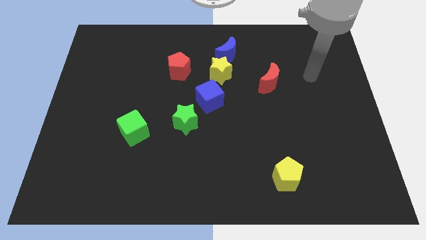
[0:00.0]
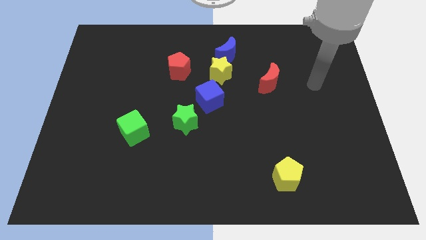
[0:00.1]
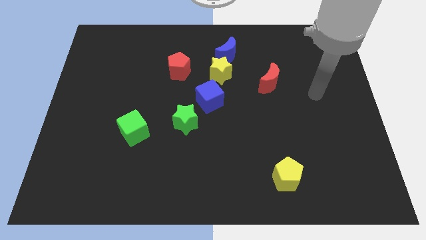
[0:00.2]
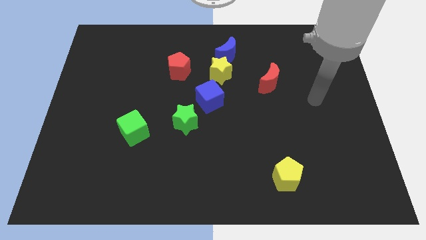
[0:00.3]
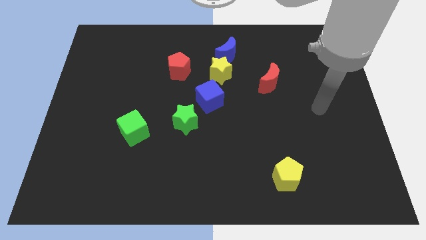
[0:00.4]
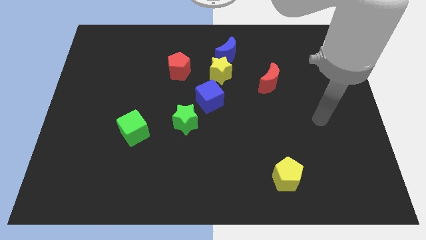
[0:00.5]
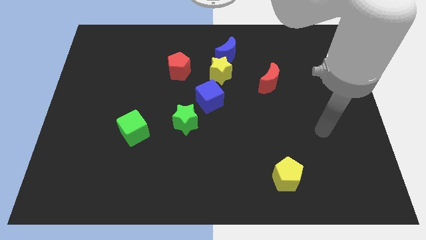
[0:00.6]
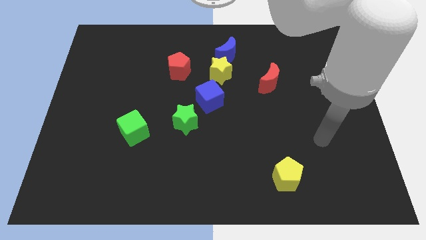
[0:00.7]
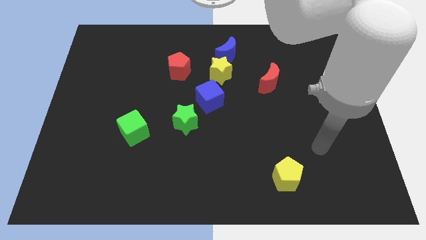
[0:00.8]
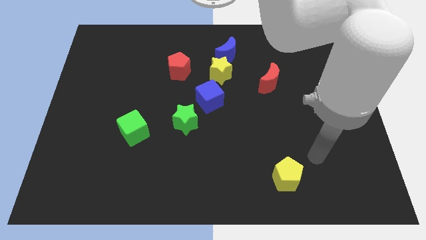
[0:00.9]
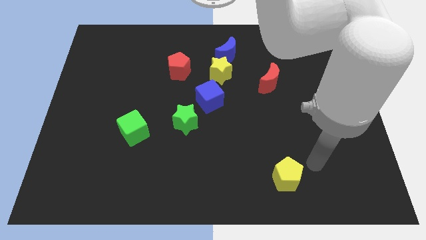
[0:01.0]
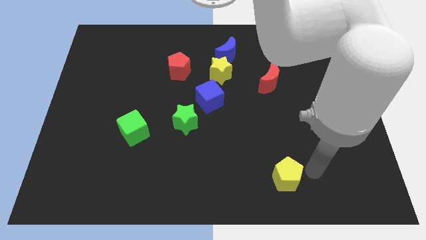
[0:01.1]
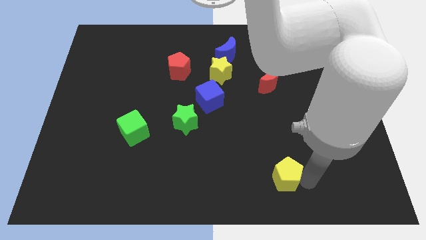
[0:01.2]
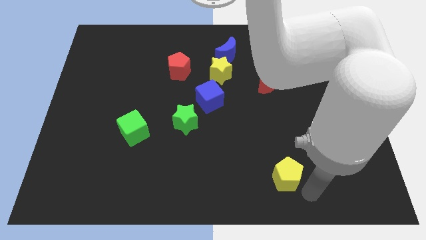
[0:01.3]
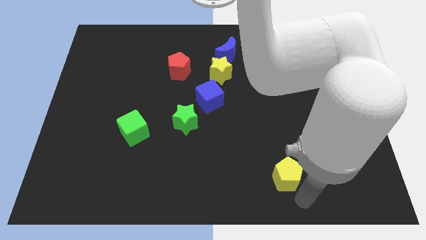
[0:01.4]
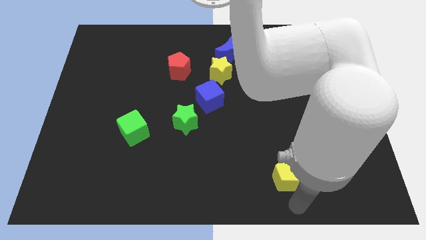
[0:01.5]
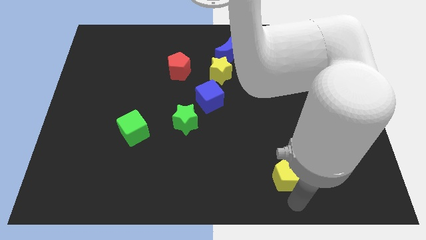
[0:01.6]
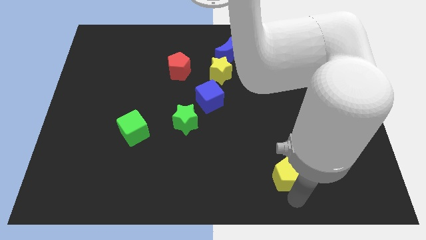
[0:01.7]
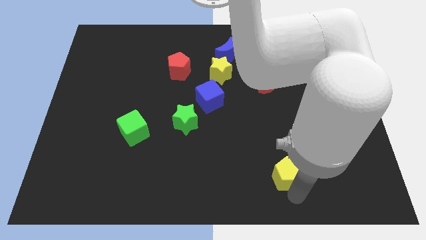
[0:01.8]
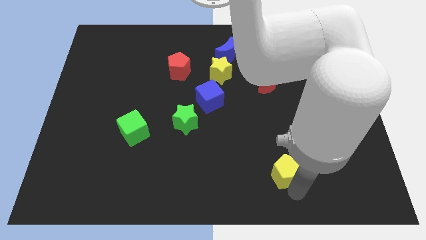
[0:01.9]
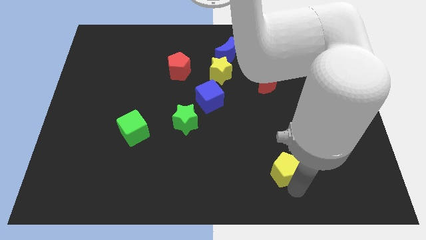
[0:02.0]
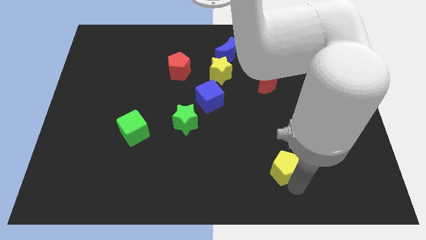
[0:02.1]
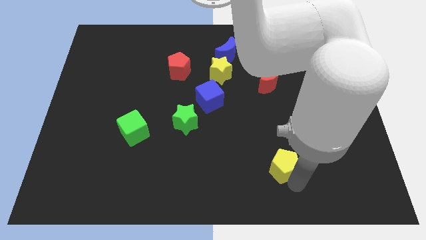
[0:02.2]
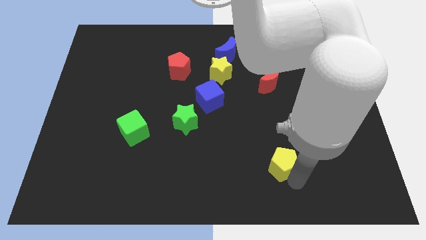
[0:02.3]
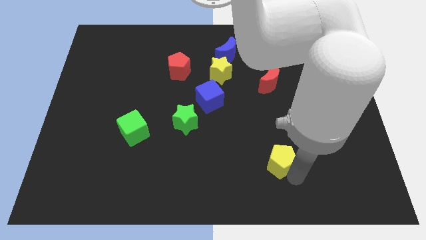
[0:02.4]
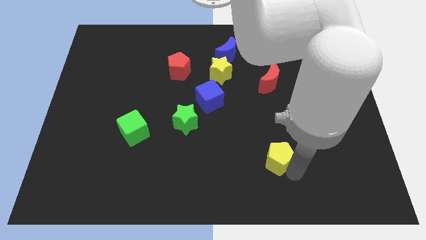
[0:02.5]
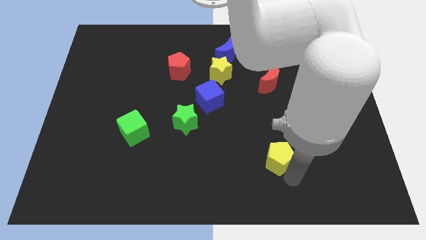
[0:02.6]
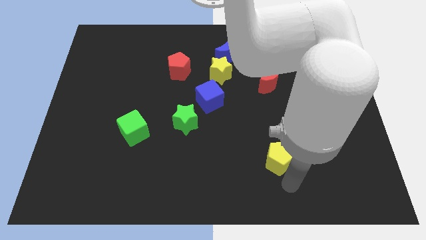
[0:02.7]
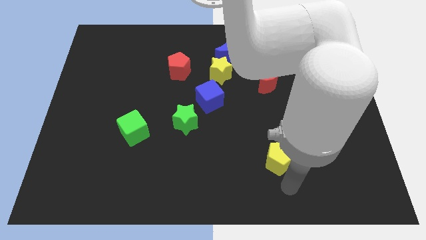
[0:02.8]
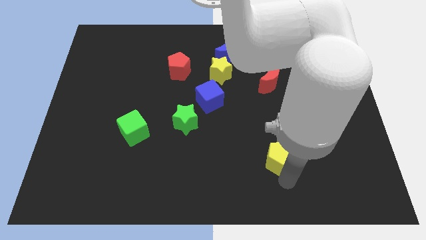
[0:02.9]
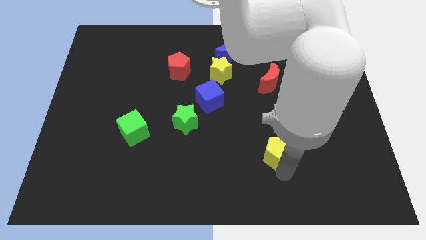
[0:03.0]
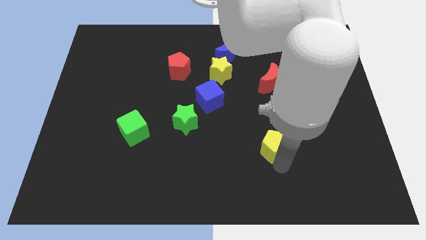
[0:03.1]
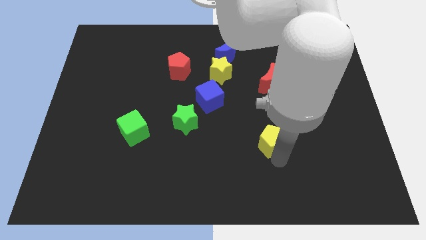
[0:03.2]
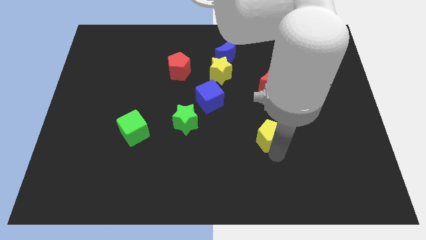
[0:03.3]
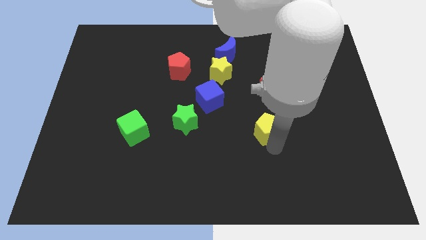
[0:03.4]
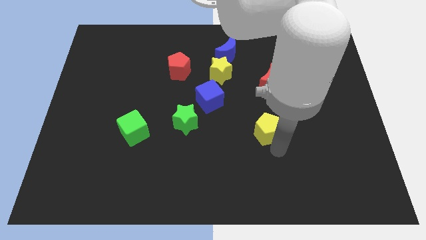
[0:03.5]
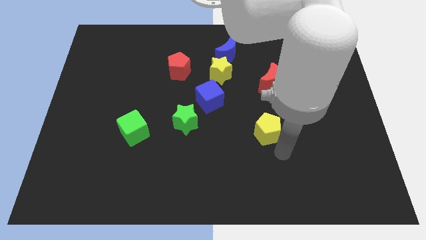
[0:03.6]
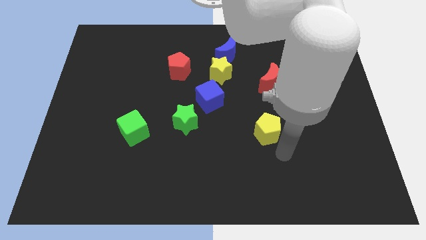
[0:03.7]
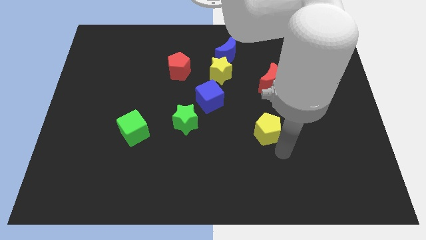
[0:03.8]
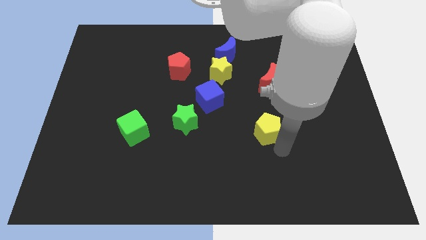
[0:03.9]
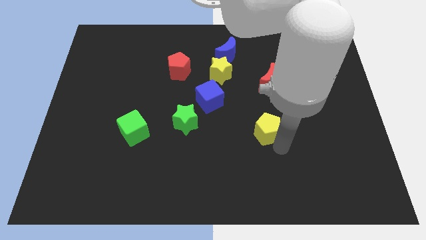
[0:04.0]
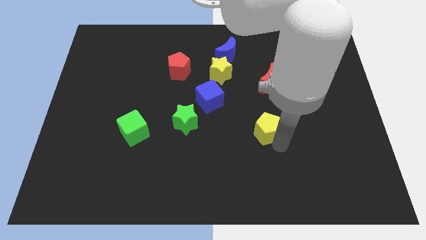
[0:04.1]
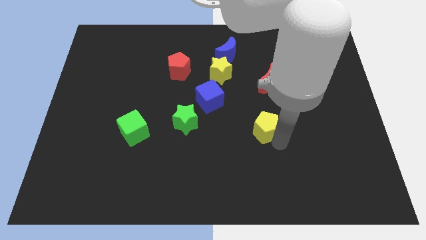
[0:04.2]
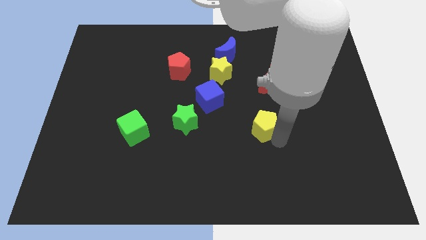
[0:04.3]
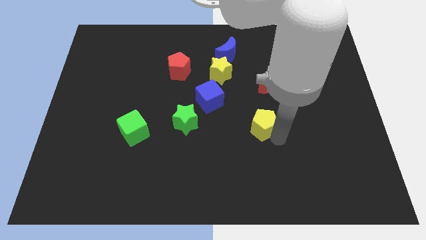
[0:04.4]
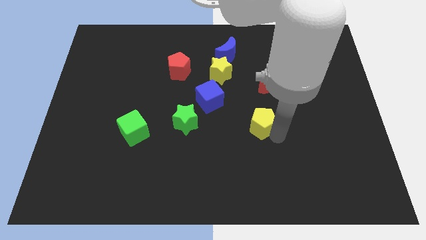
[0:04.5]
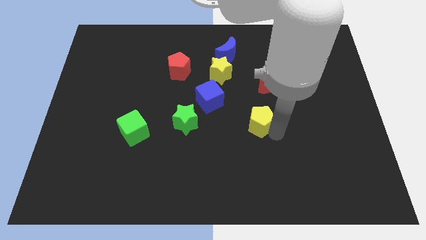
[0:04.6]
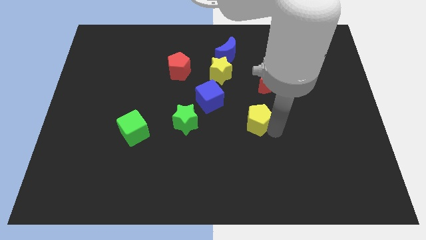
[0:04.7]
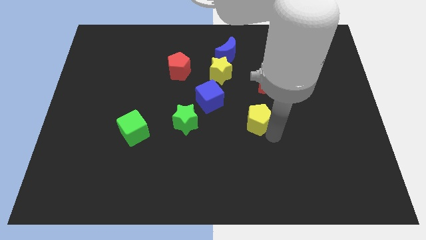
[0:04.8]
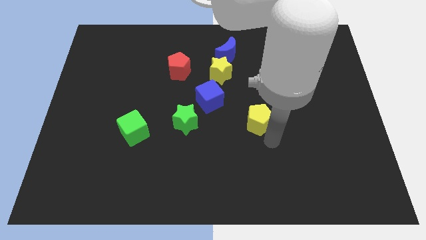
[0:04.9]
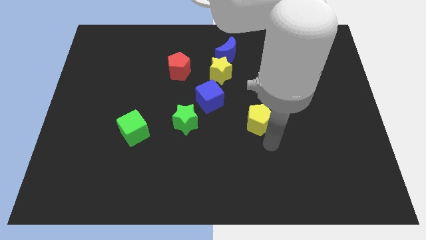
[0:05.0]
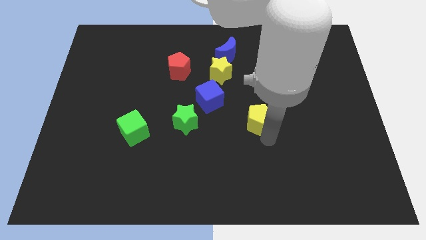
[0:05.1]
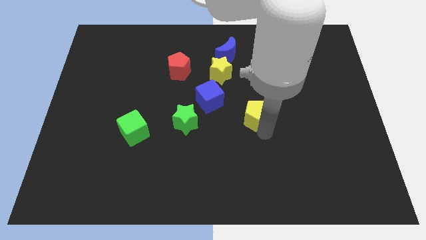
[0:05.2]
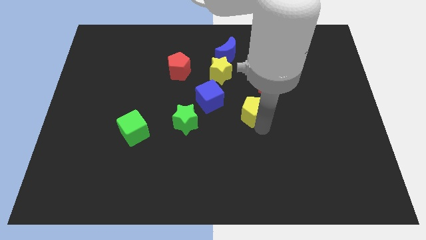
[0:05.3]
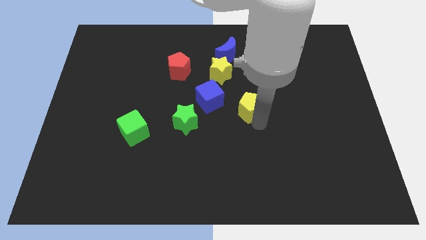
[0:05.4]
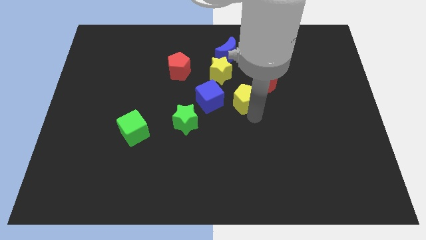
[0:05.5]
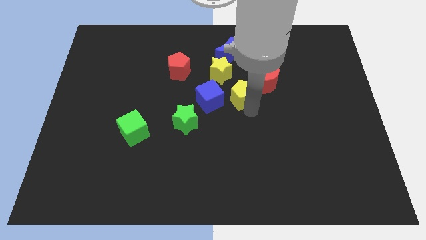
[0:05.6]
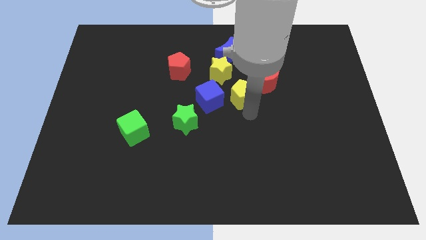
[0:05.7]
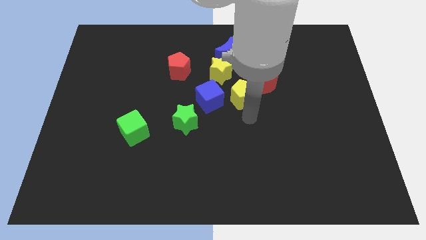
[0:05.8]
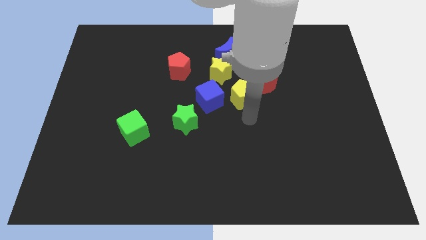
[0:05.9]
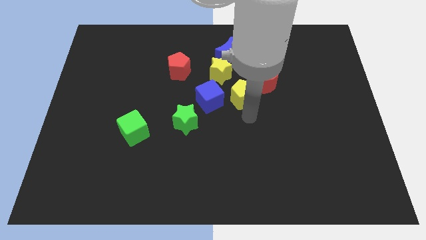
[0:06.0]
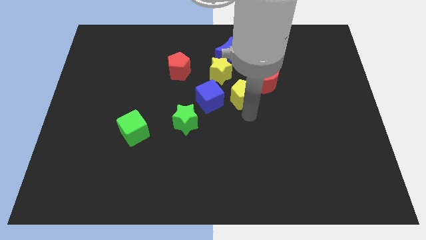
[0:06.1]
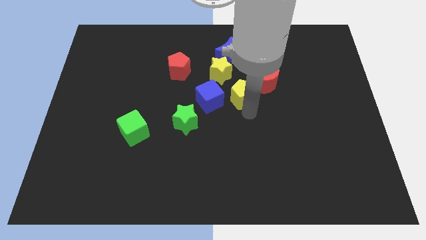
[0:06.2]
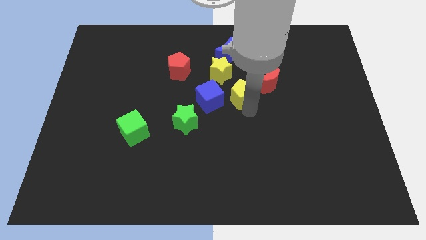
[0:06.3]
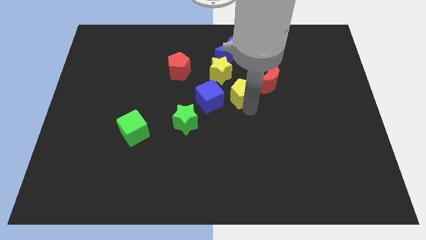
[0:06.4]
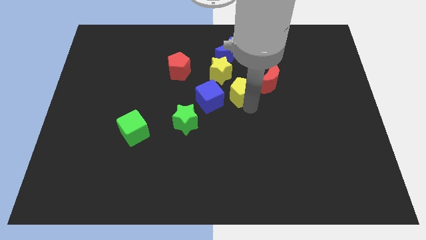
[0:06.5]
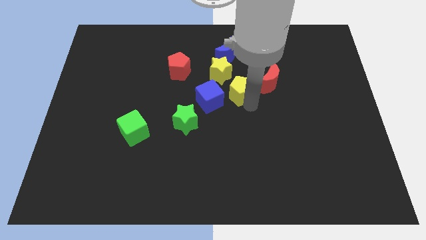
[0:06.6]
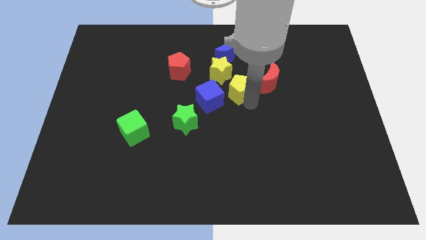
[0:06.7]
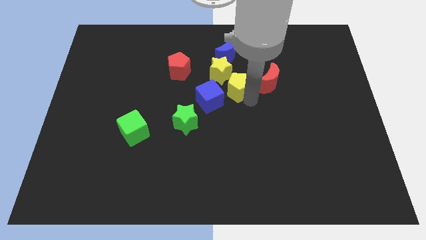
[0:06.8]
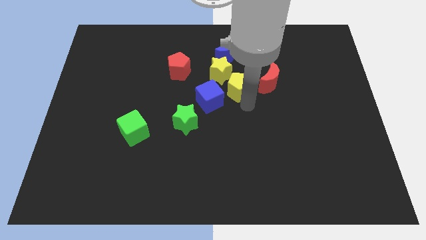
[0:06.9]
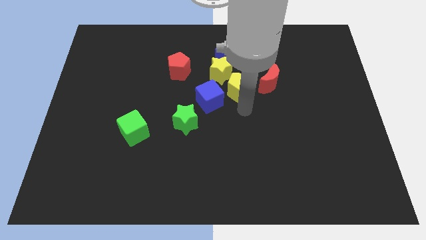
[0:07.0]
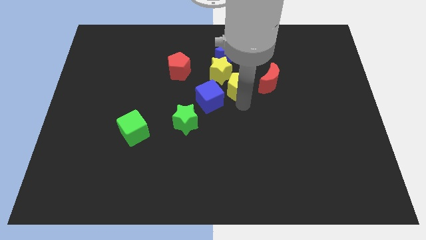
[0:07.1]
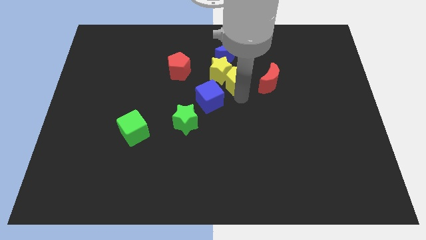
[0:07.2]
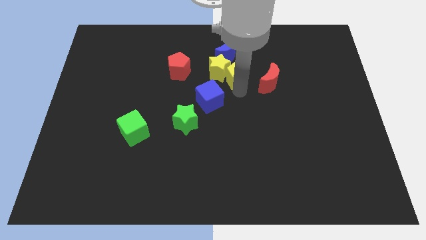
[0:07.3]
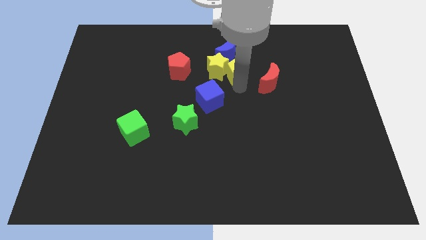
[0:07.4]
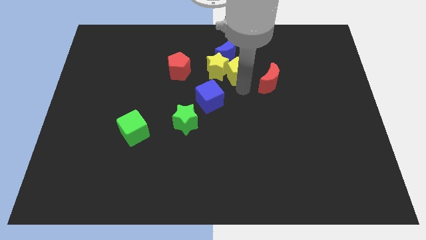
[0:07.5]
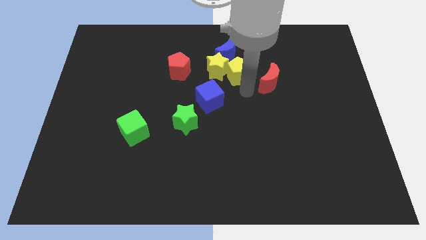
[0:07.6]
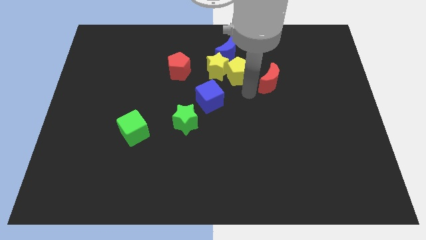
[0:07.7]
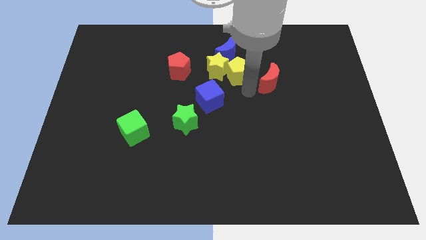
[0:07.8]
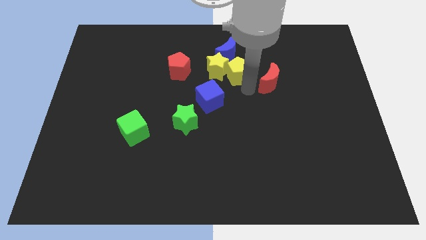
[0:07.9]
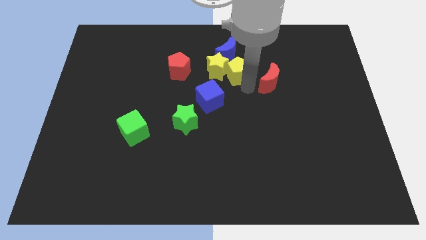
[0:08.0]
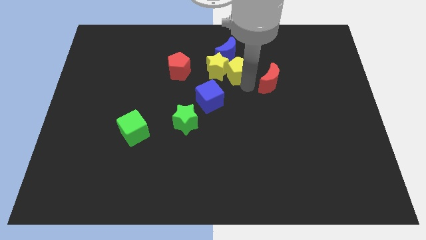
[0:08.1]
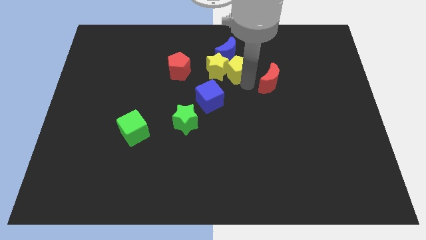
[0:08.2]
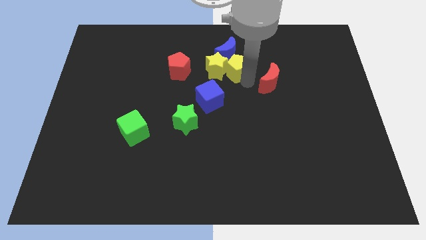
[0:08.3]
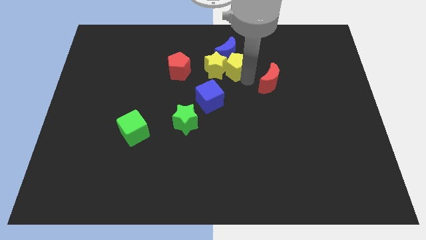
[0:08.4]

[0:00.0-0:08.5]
put the yellow pentagon towards the blue moon
